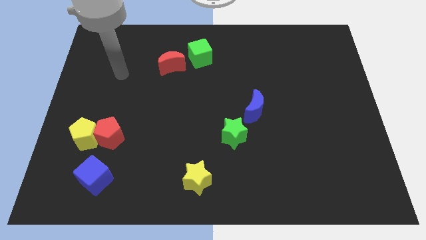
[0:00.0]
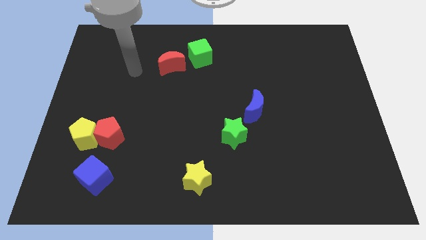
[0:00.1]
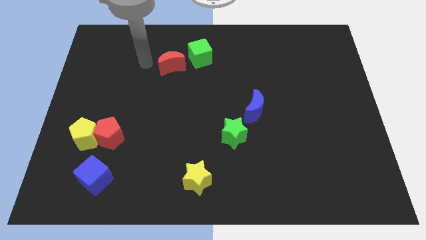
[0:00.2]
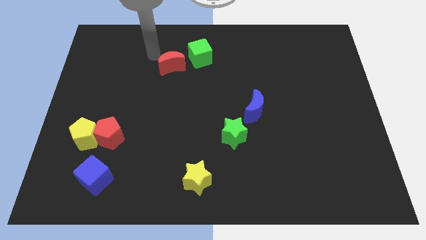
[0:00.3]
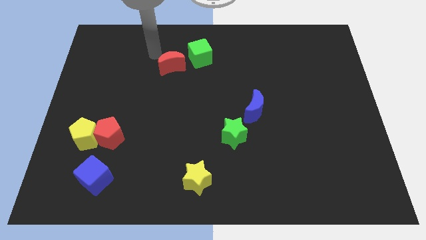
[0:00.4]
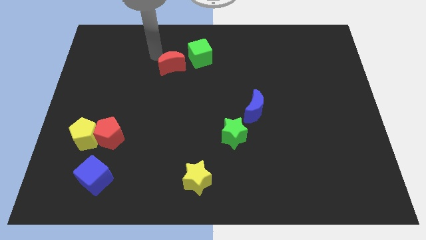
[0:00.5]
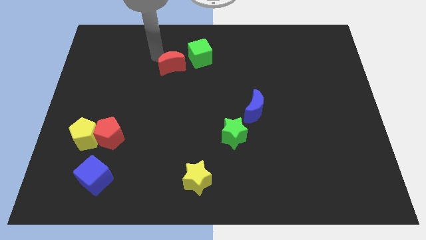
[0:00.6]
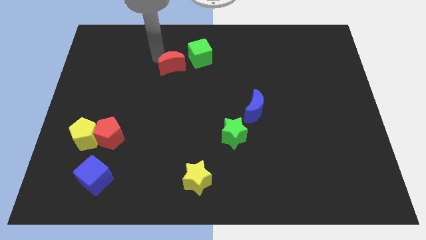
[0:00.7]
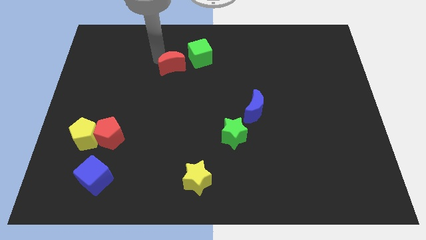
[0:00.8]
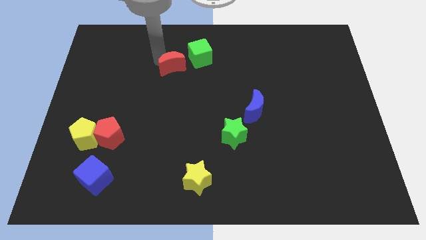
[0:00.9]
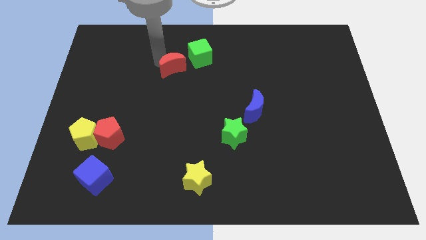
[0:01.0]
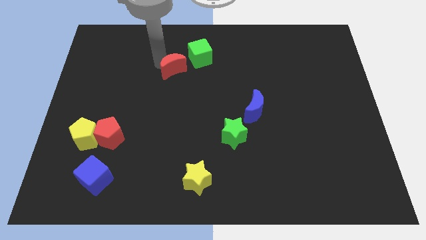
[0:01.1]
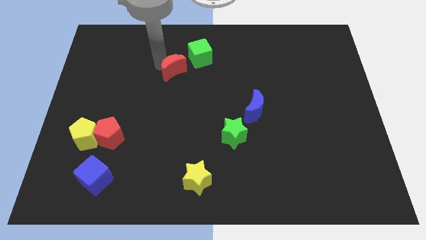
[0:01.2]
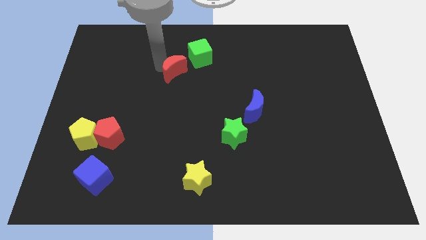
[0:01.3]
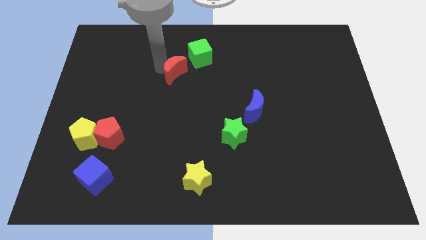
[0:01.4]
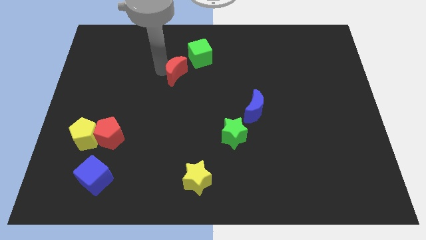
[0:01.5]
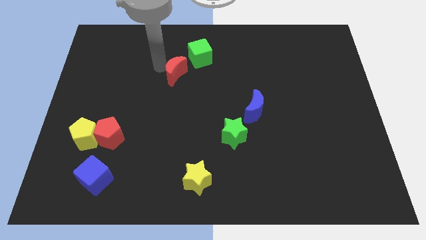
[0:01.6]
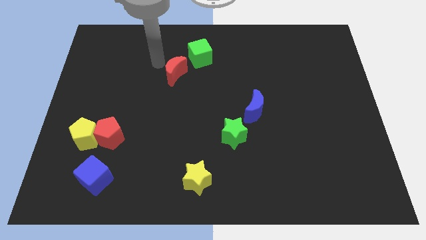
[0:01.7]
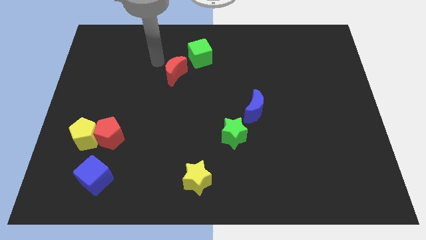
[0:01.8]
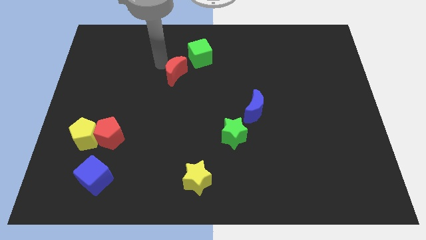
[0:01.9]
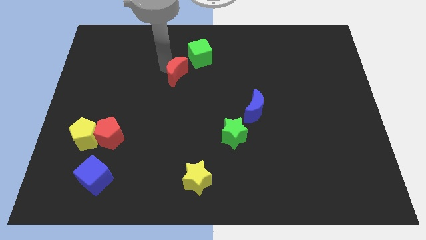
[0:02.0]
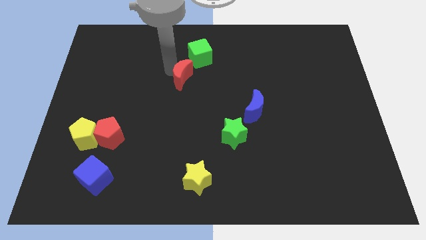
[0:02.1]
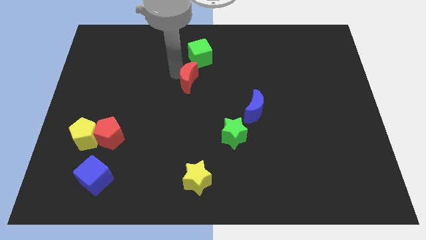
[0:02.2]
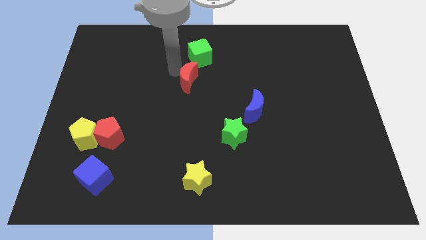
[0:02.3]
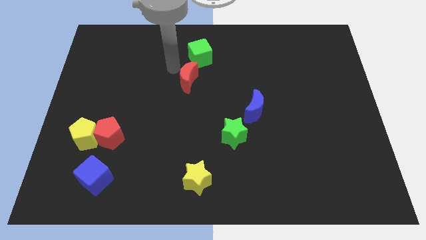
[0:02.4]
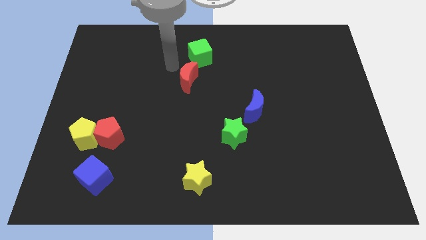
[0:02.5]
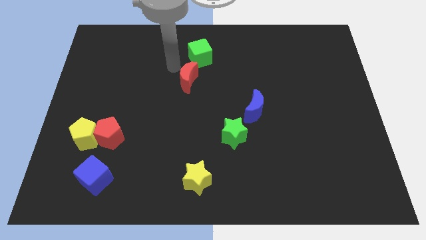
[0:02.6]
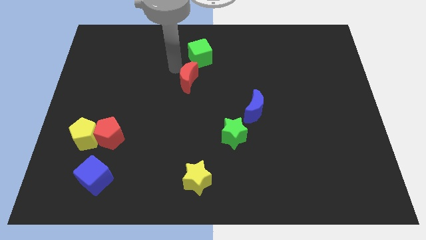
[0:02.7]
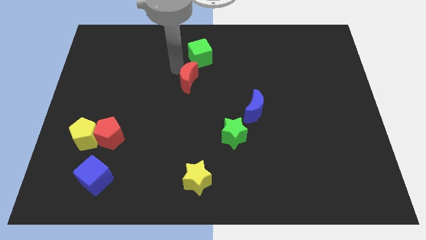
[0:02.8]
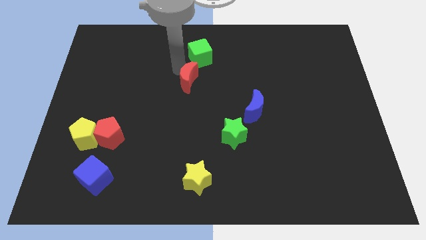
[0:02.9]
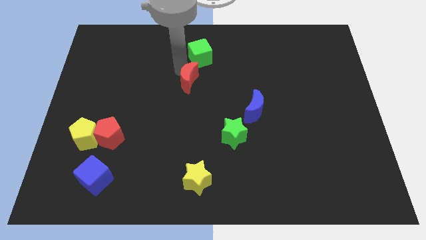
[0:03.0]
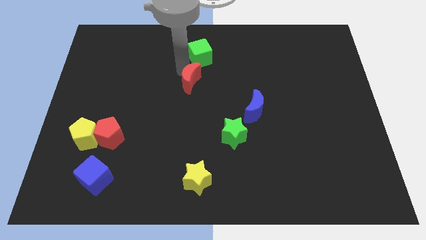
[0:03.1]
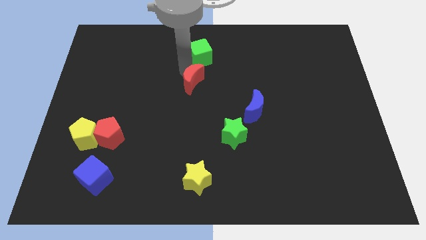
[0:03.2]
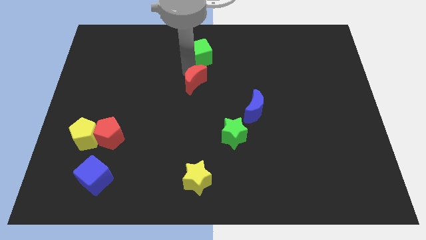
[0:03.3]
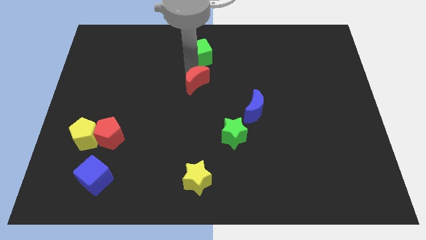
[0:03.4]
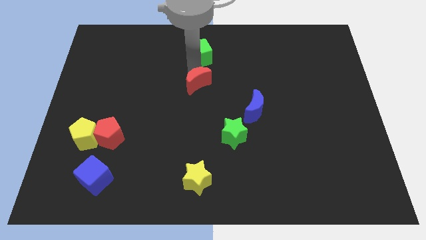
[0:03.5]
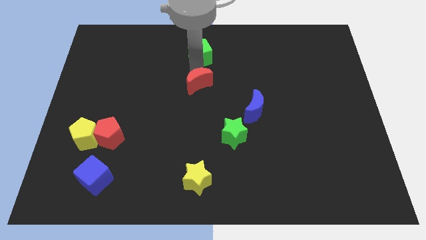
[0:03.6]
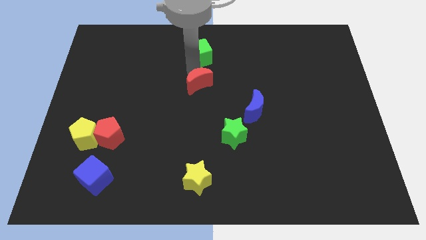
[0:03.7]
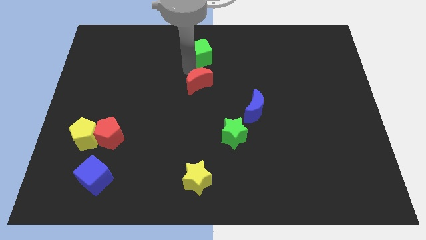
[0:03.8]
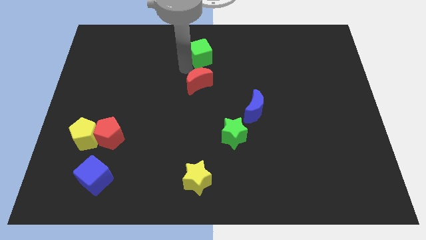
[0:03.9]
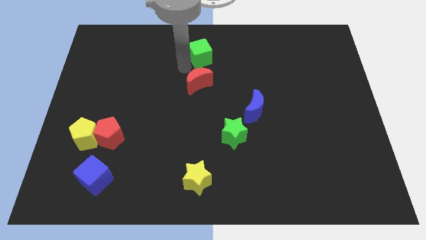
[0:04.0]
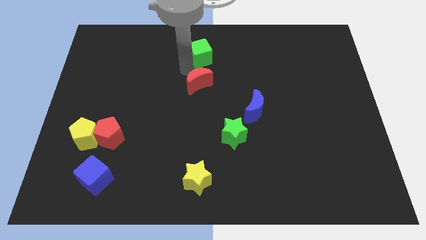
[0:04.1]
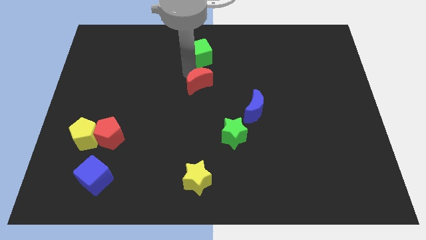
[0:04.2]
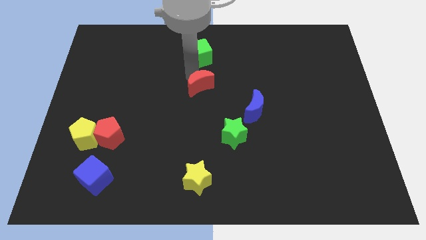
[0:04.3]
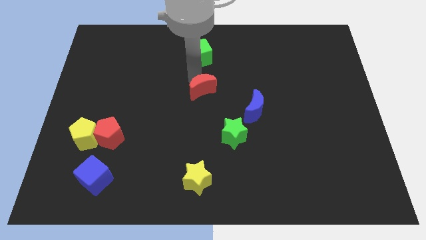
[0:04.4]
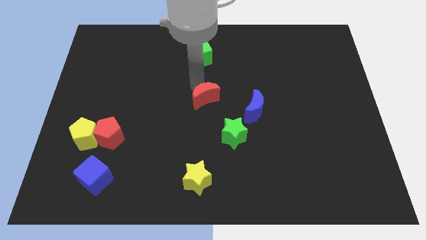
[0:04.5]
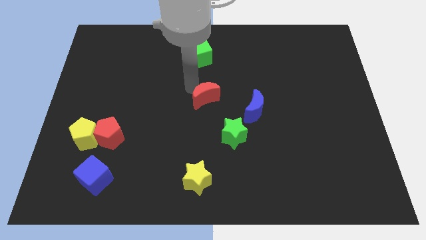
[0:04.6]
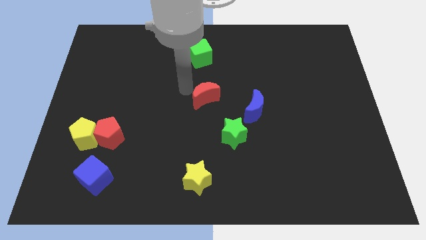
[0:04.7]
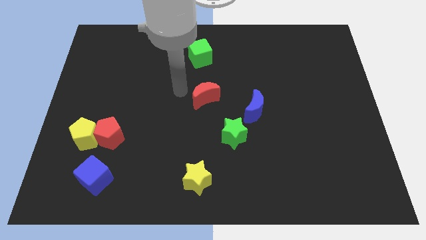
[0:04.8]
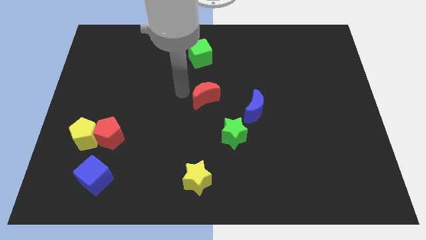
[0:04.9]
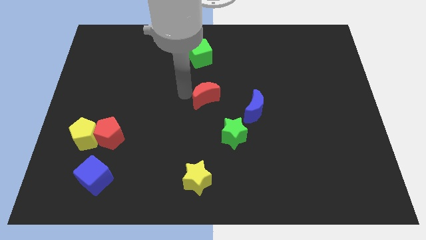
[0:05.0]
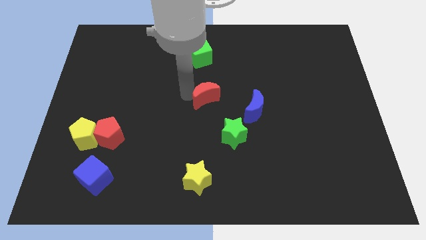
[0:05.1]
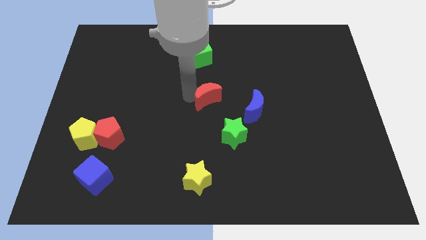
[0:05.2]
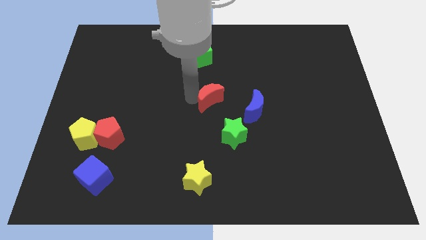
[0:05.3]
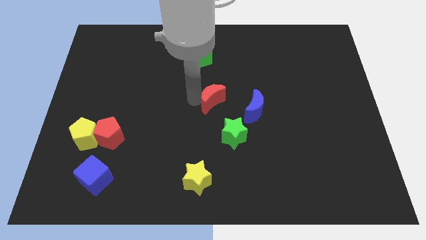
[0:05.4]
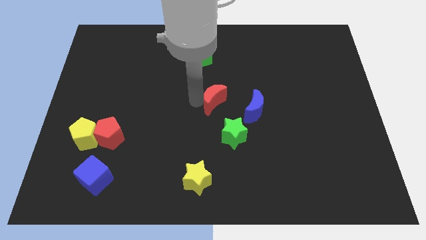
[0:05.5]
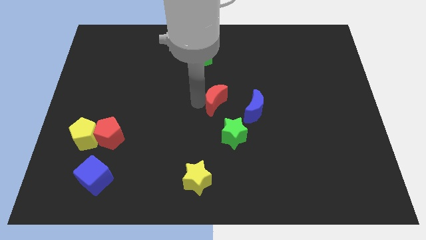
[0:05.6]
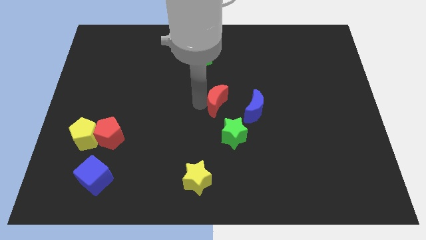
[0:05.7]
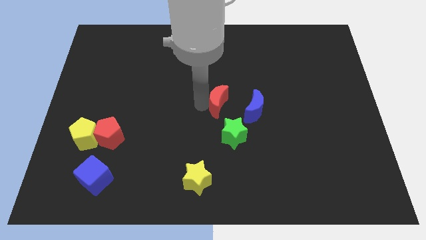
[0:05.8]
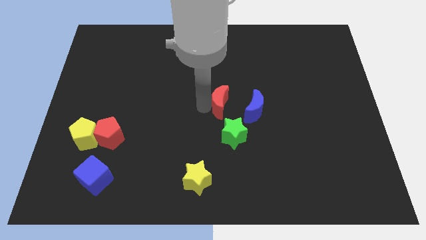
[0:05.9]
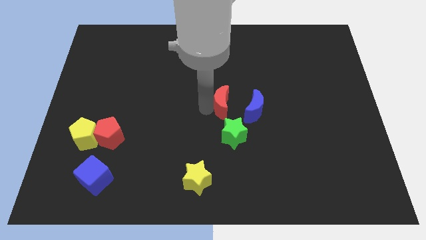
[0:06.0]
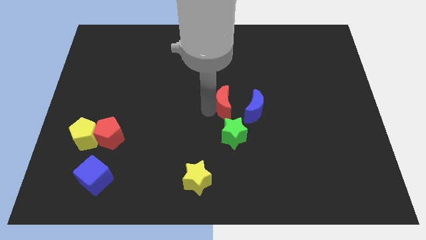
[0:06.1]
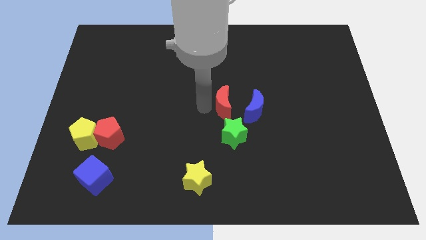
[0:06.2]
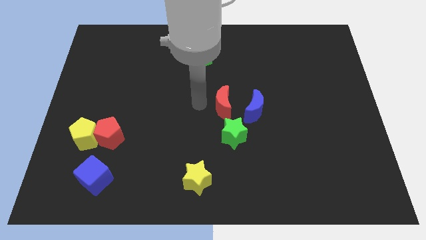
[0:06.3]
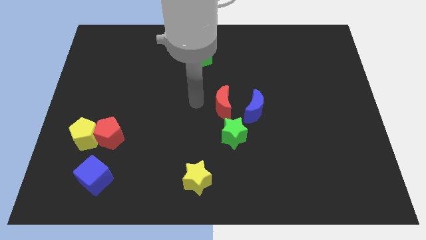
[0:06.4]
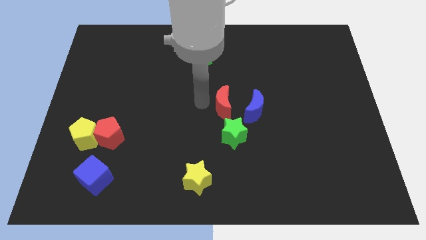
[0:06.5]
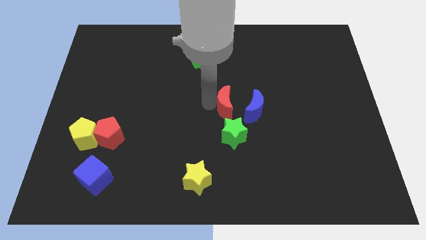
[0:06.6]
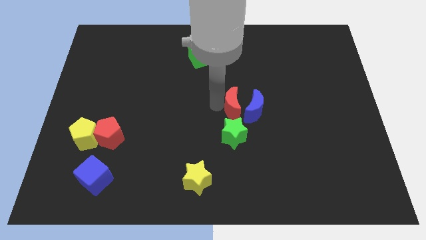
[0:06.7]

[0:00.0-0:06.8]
slide the red moon to the blue moon

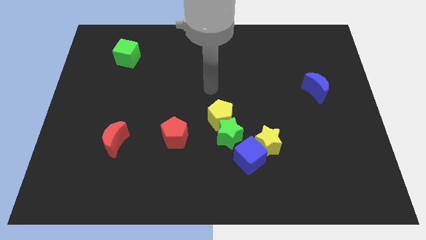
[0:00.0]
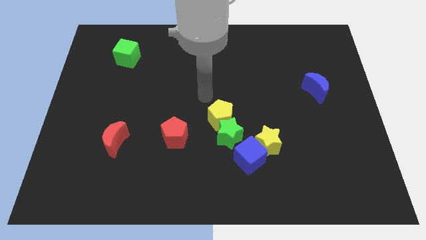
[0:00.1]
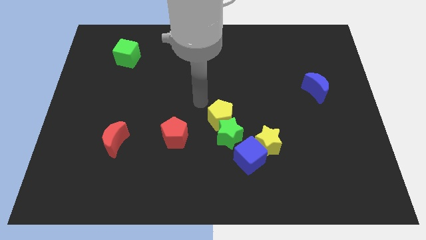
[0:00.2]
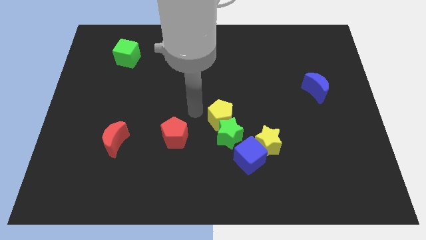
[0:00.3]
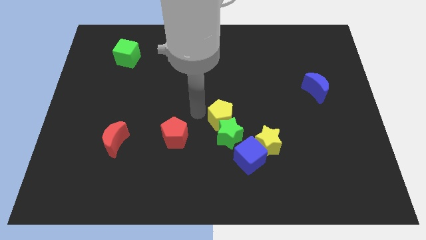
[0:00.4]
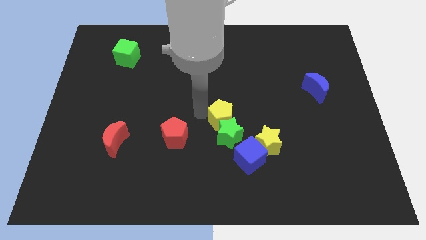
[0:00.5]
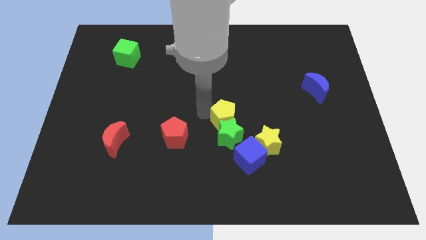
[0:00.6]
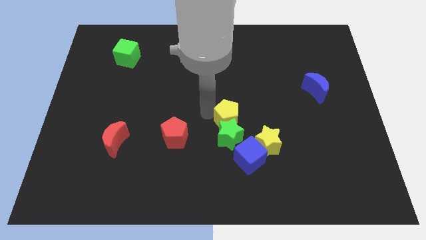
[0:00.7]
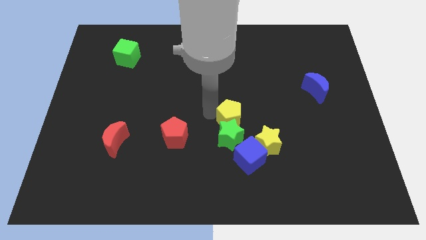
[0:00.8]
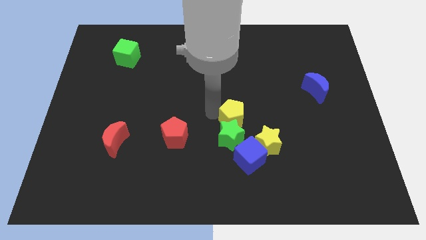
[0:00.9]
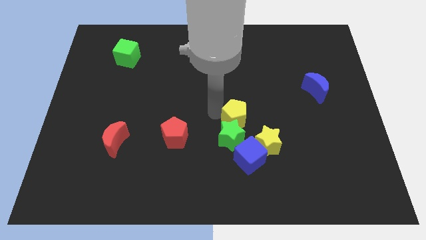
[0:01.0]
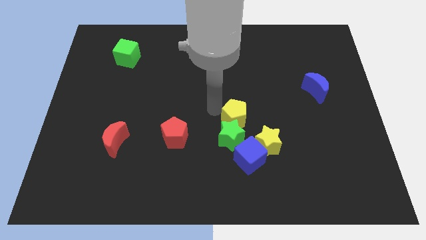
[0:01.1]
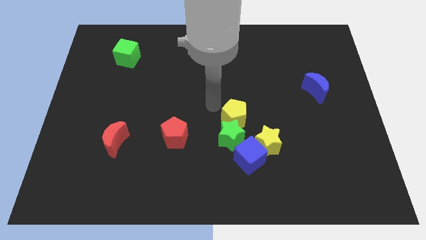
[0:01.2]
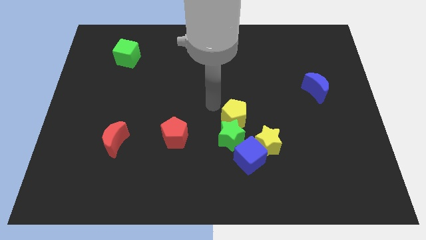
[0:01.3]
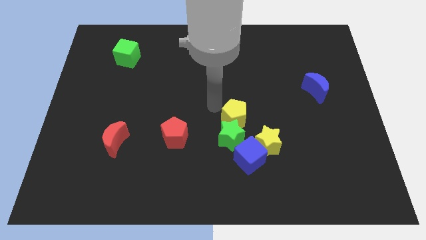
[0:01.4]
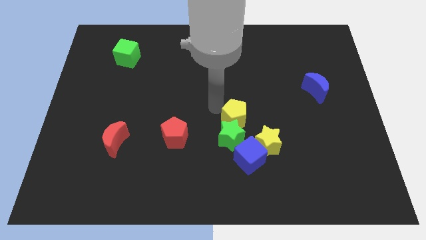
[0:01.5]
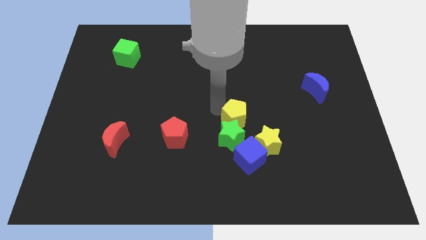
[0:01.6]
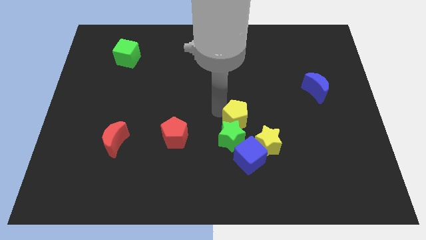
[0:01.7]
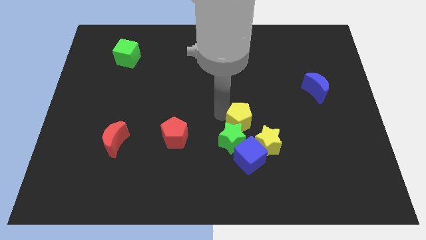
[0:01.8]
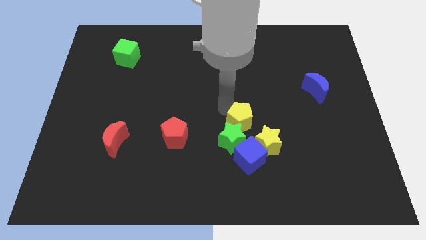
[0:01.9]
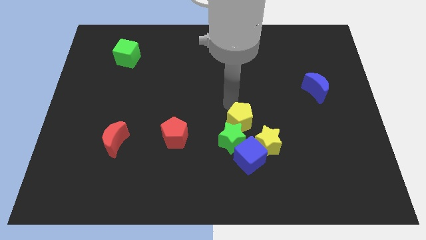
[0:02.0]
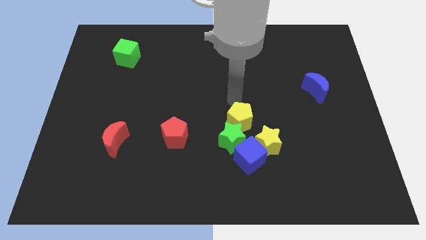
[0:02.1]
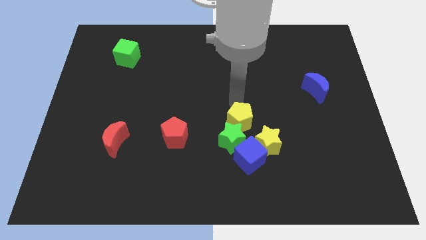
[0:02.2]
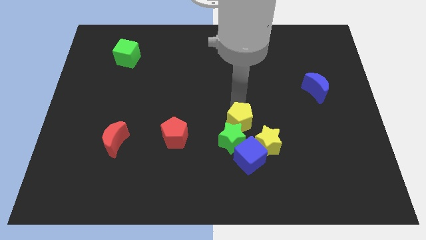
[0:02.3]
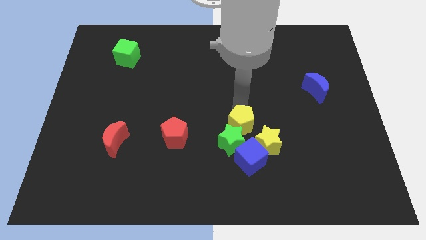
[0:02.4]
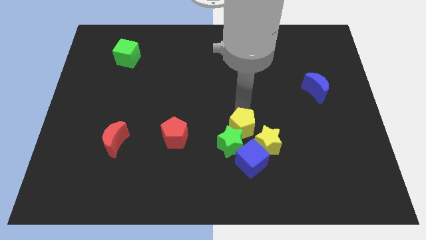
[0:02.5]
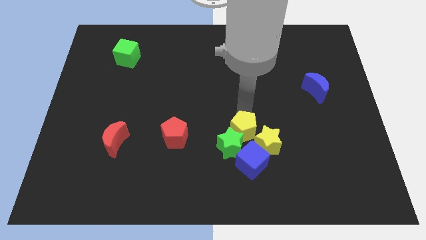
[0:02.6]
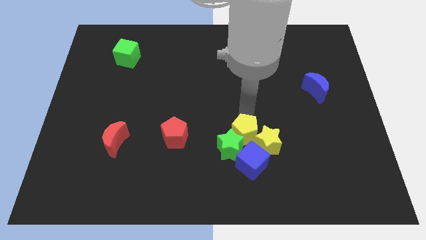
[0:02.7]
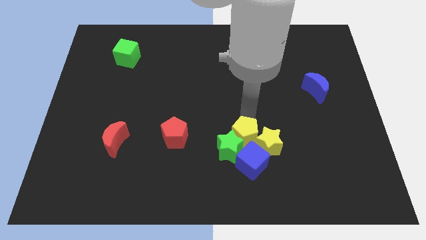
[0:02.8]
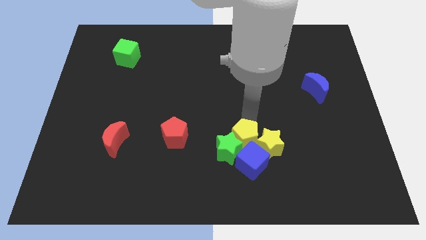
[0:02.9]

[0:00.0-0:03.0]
push the yellow pentagon to the blue cube
